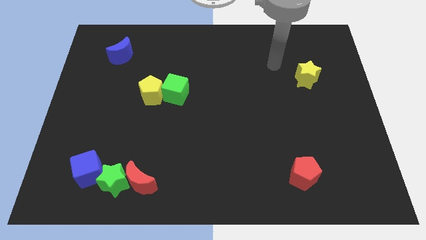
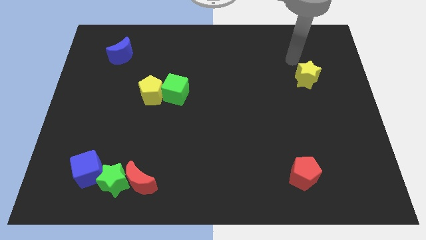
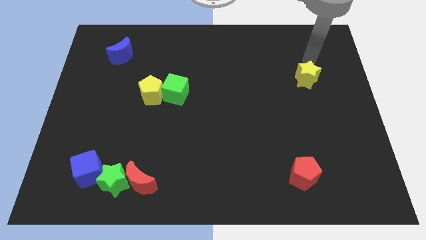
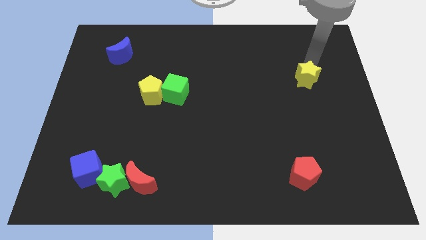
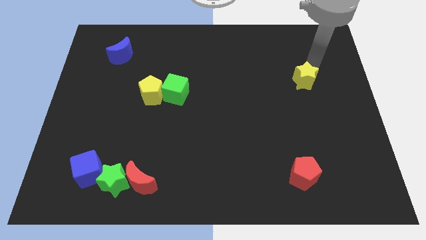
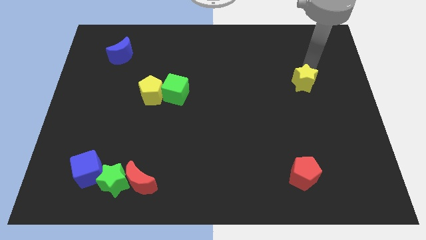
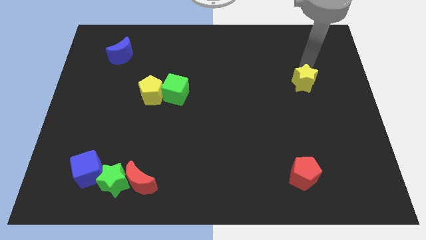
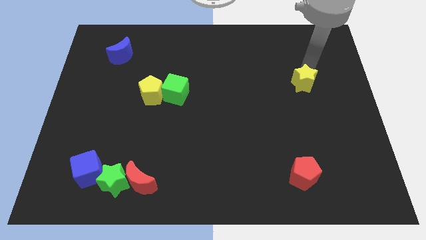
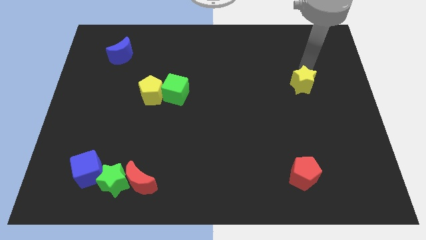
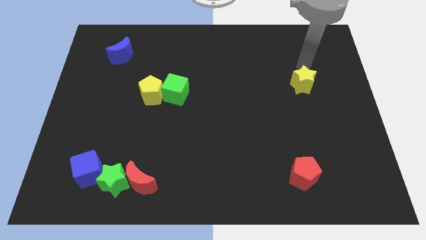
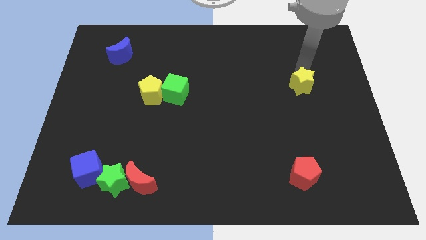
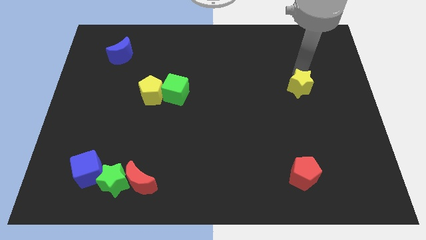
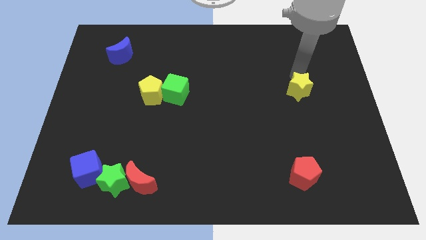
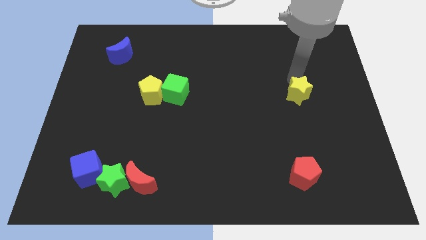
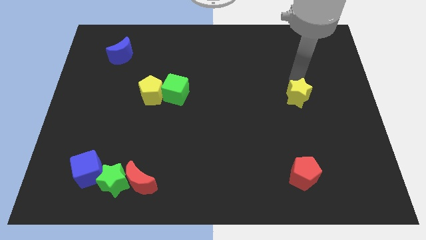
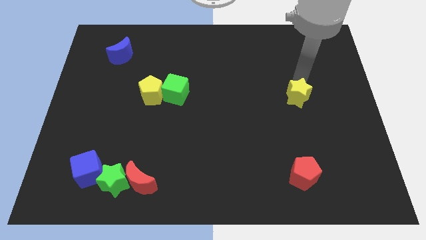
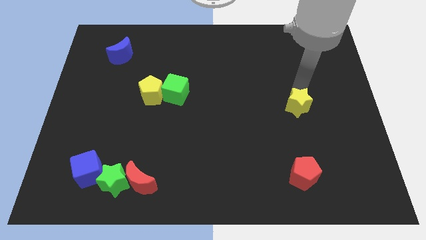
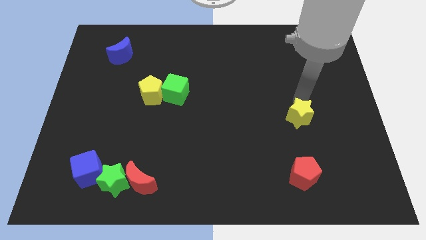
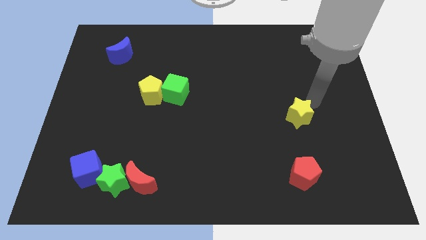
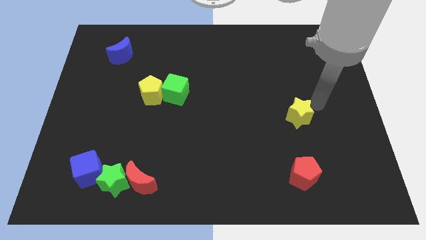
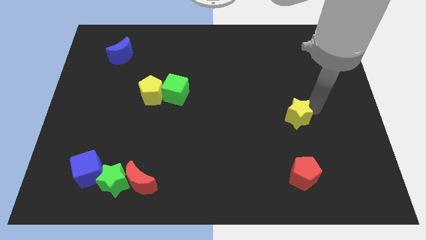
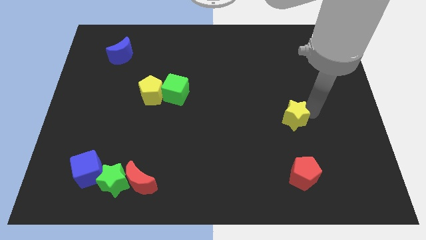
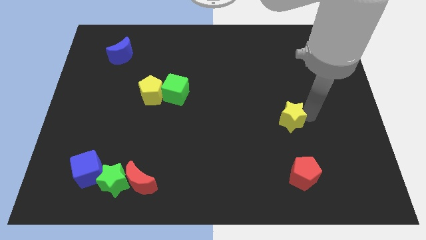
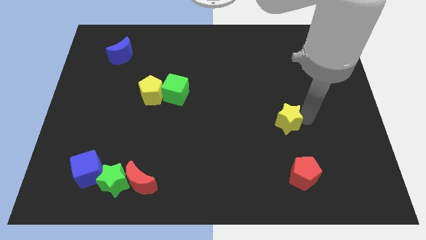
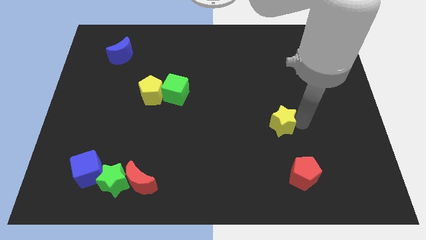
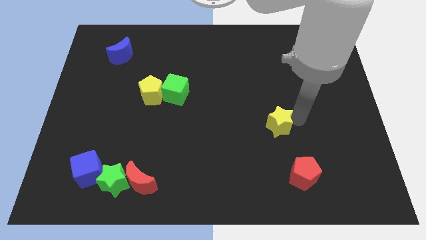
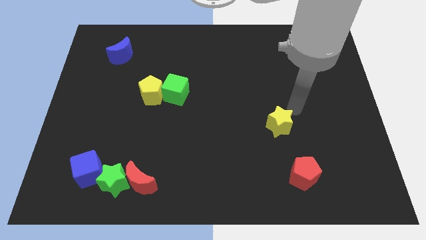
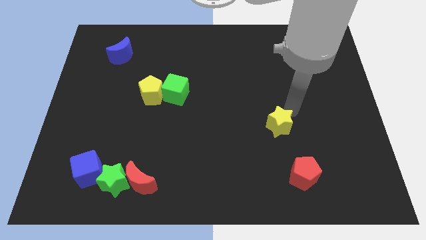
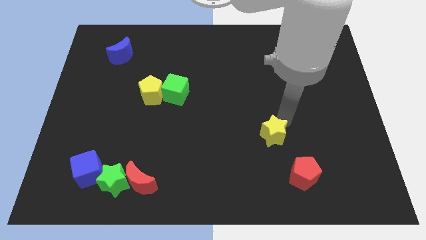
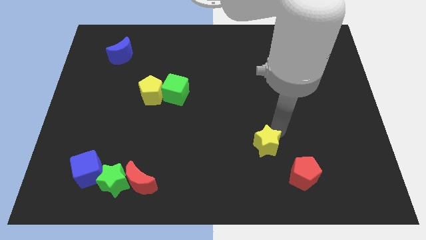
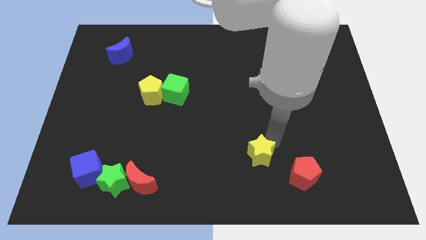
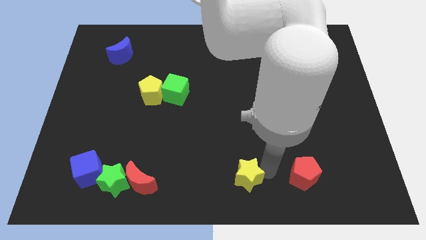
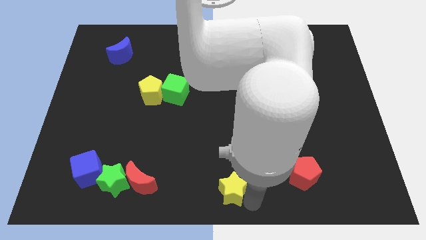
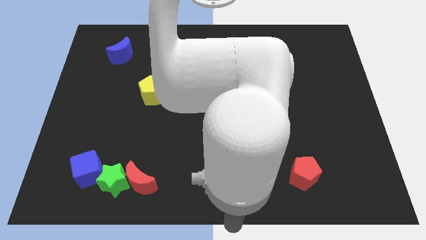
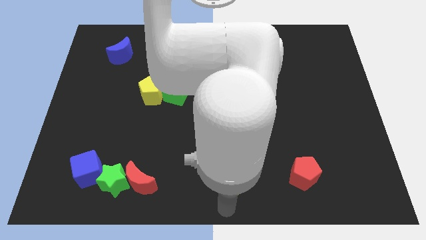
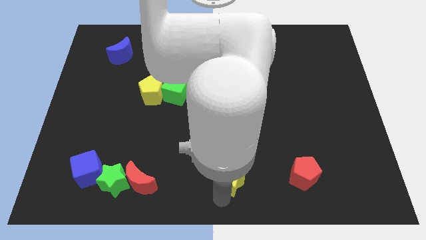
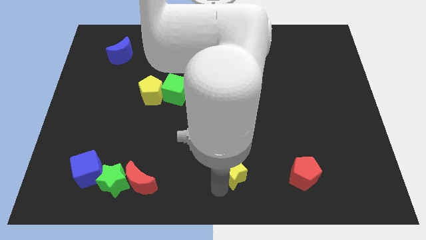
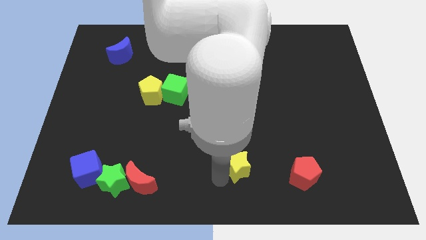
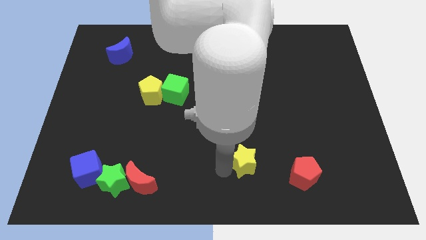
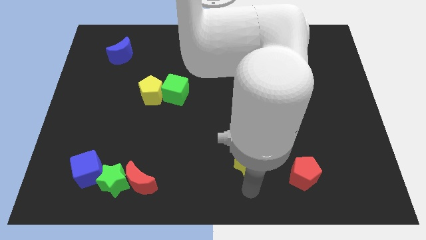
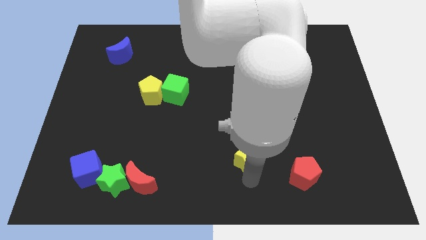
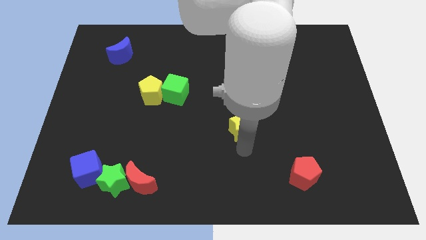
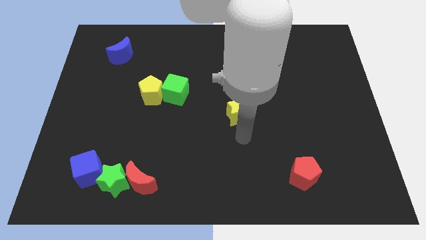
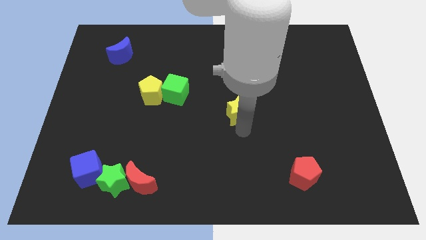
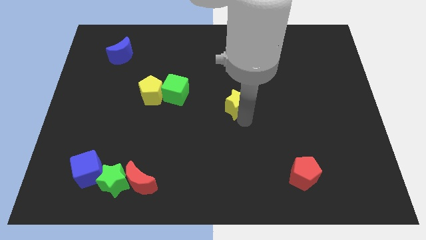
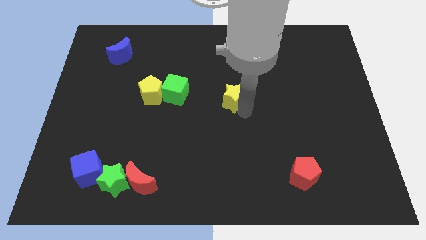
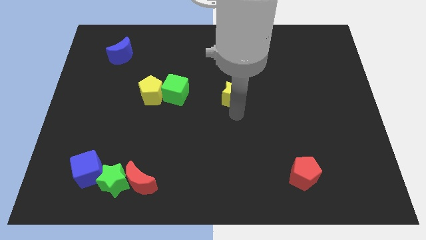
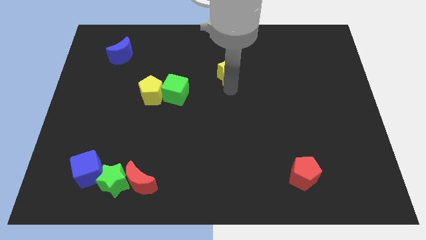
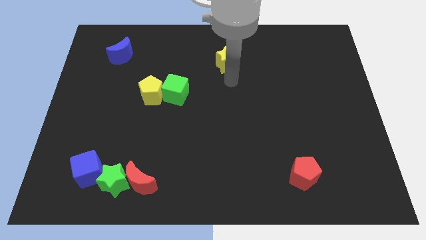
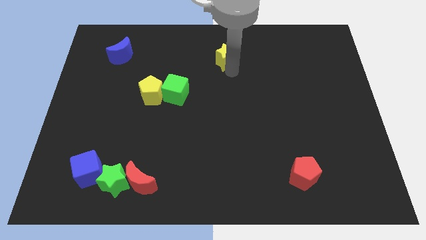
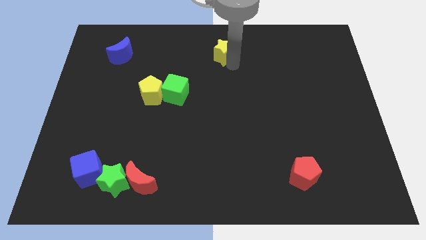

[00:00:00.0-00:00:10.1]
put the yellow star to the top side

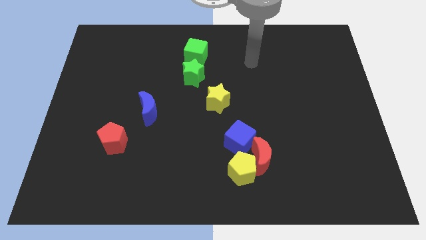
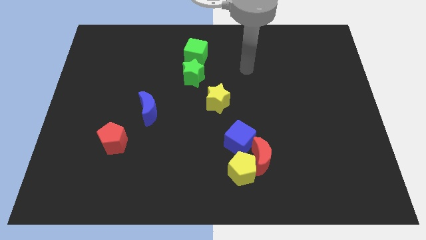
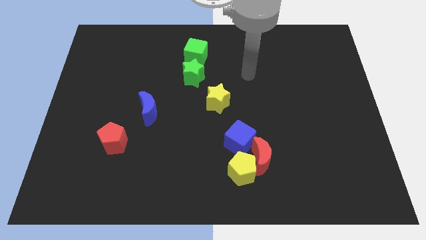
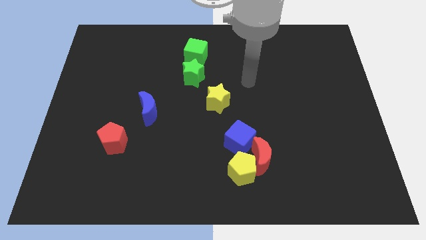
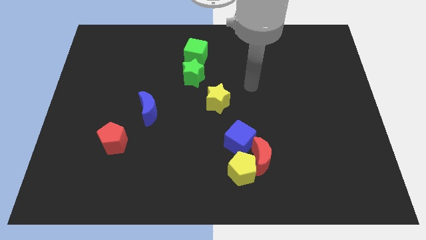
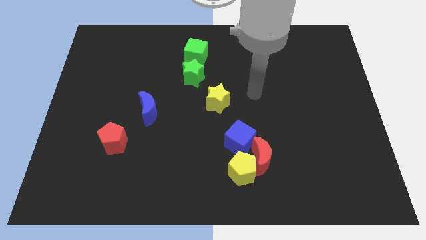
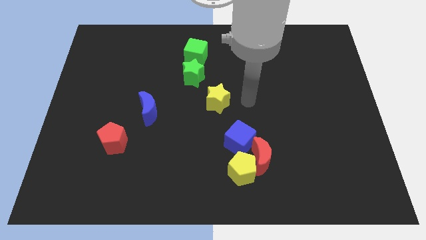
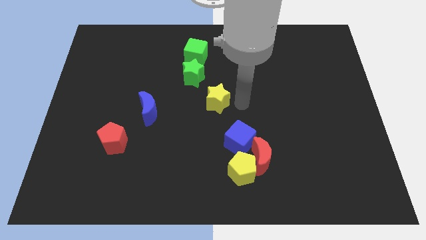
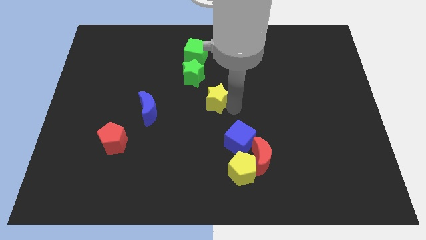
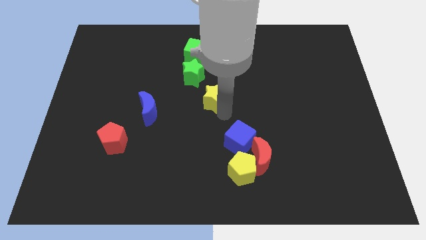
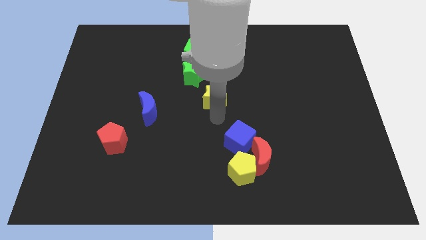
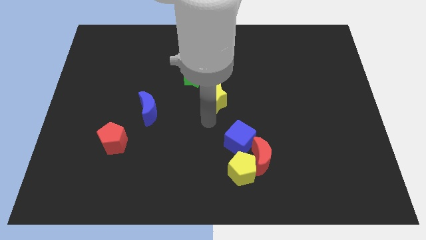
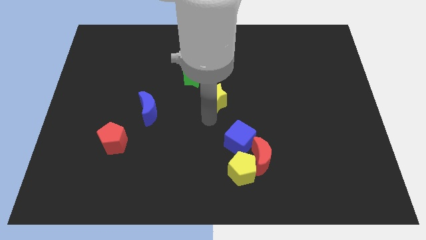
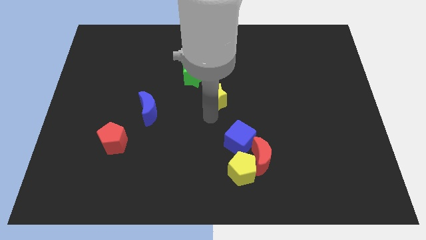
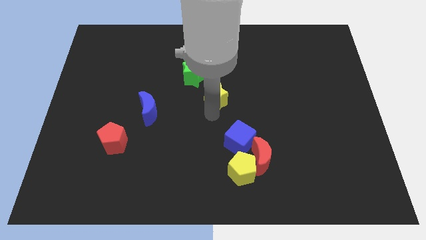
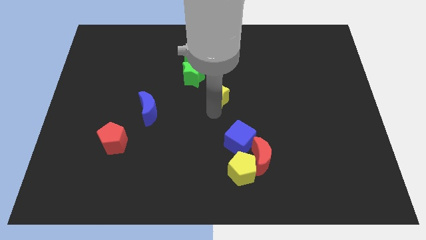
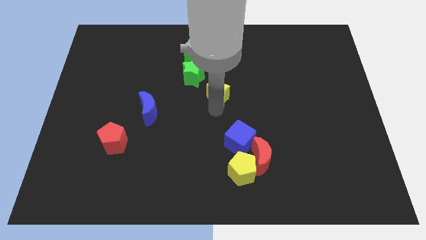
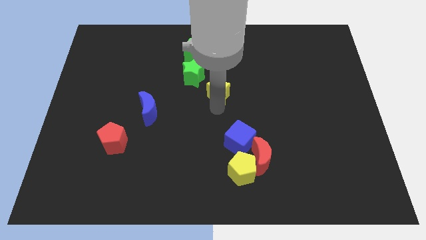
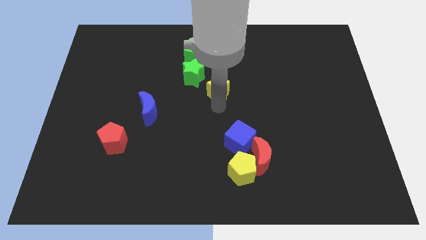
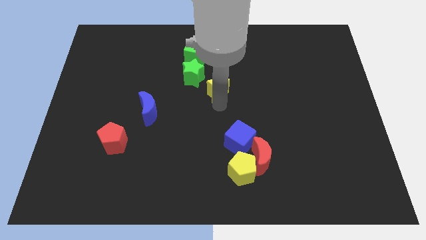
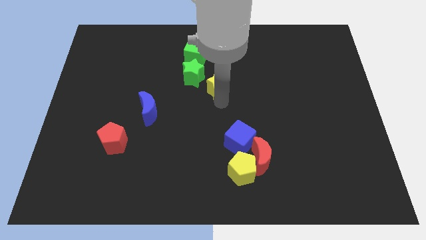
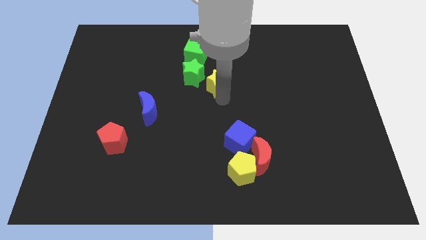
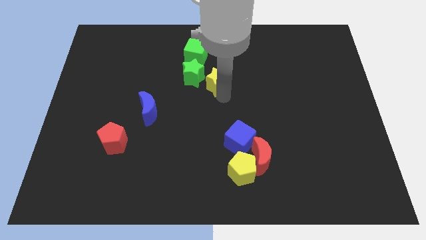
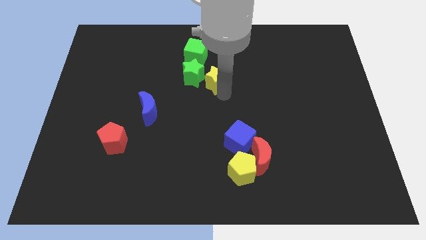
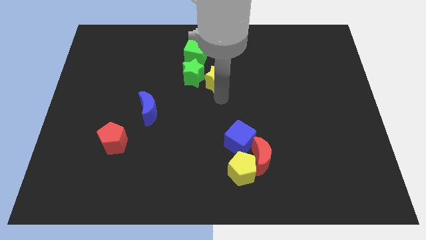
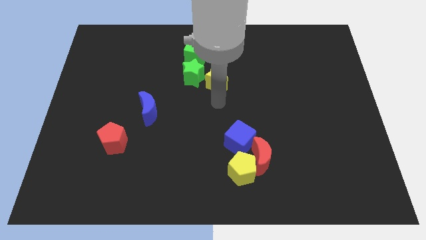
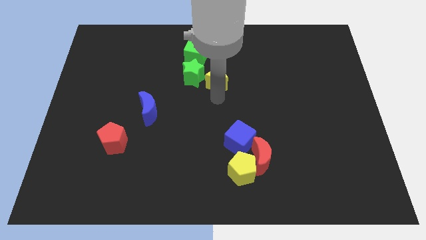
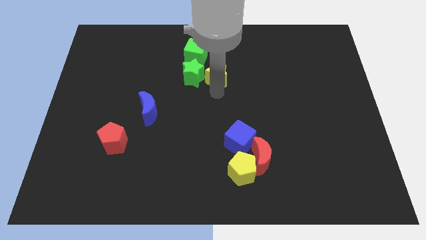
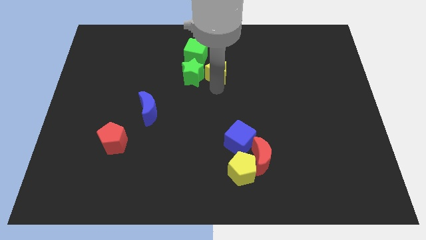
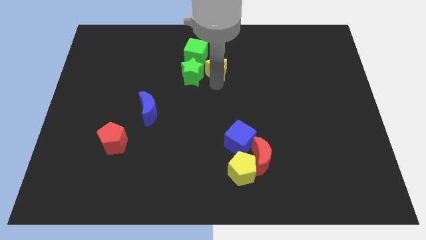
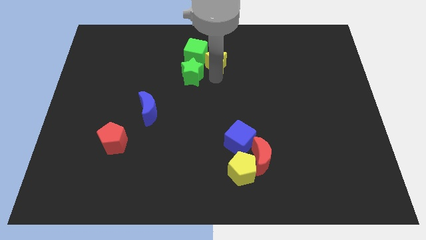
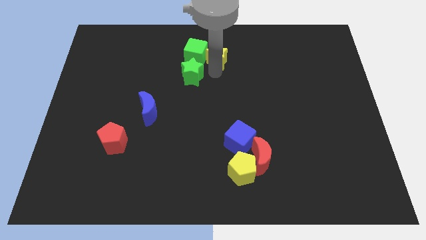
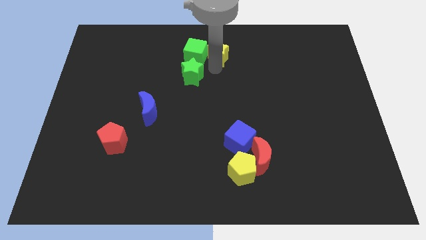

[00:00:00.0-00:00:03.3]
slide the yellow star to the top
